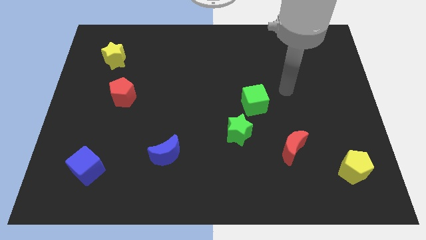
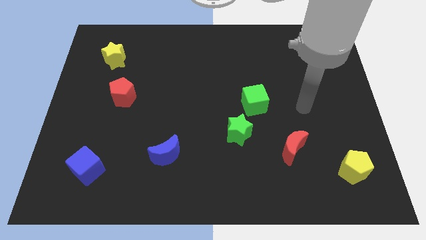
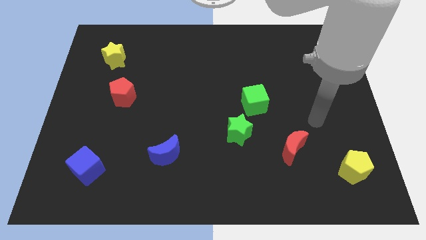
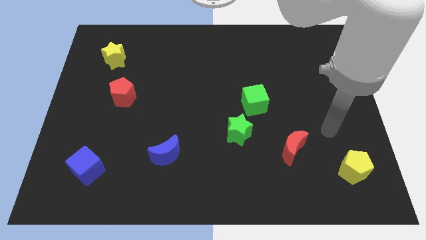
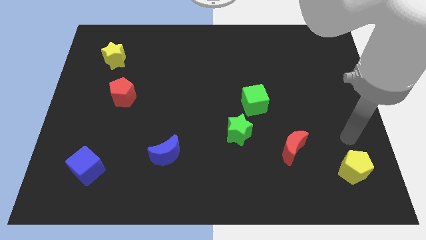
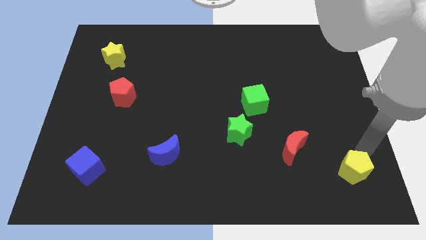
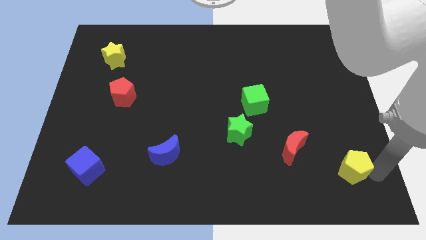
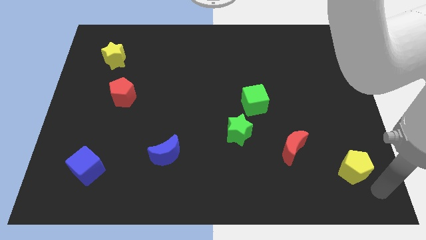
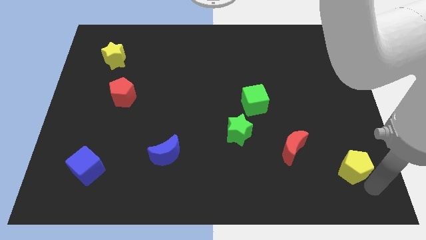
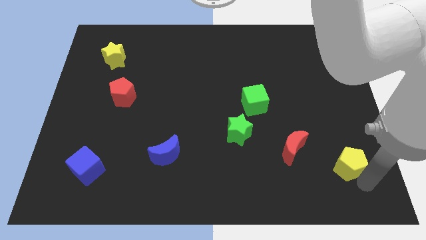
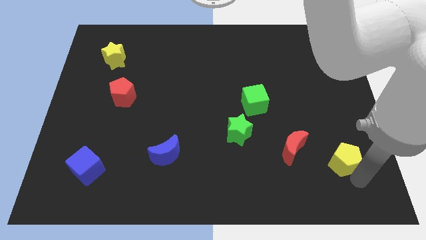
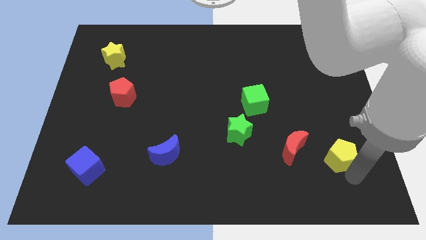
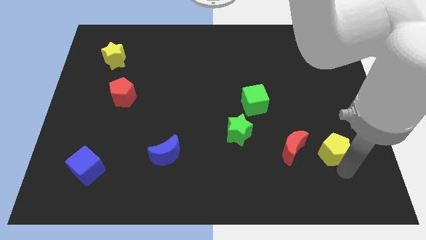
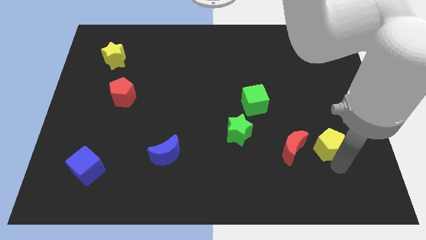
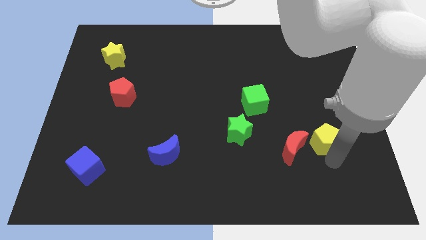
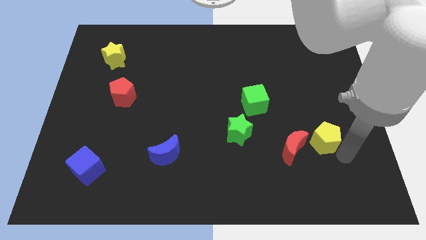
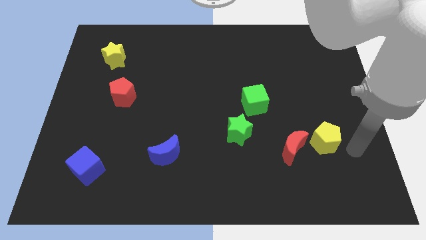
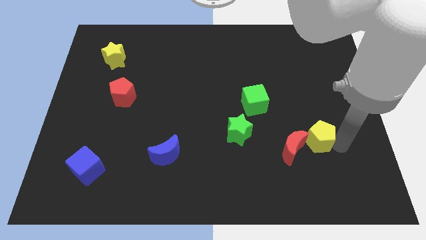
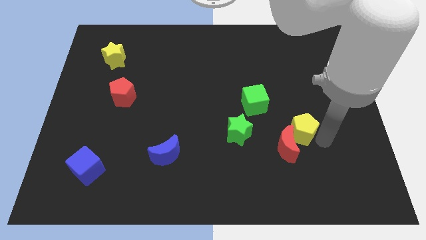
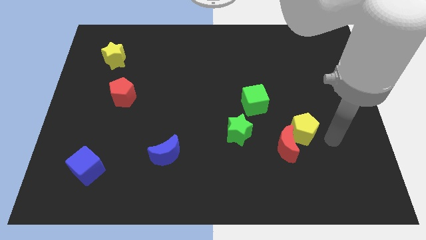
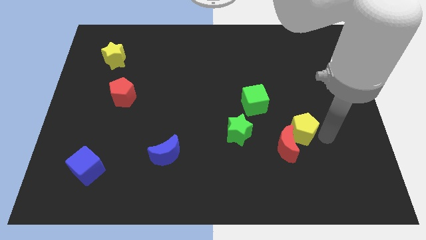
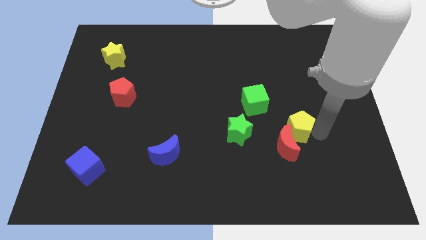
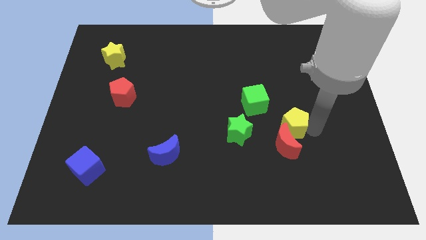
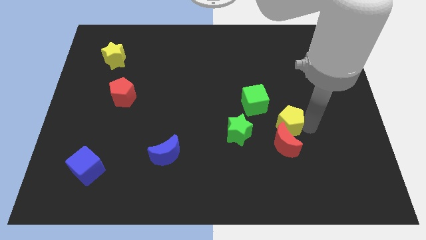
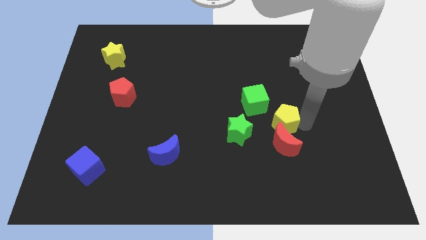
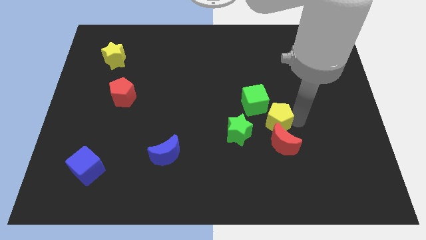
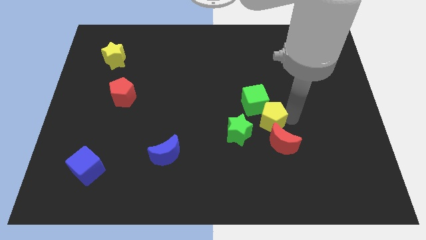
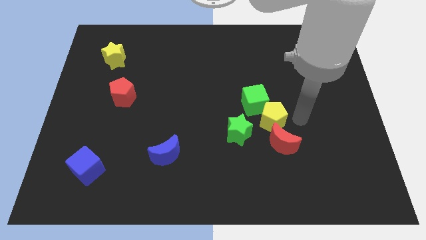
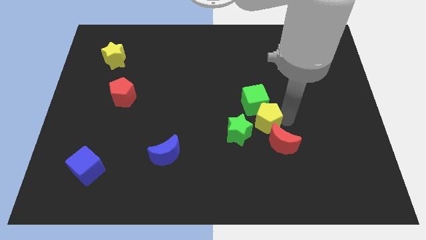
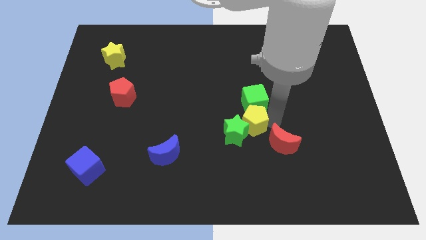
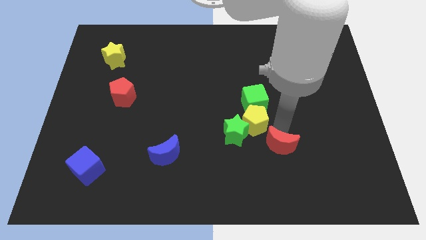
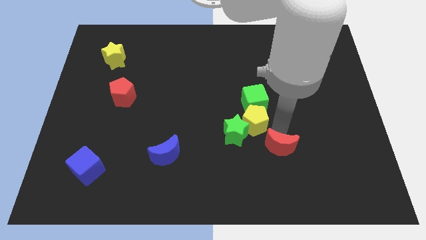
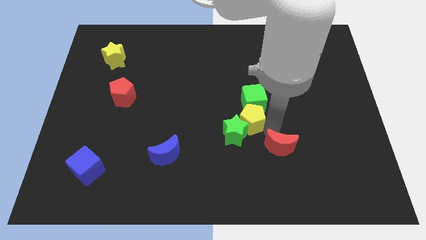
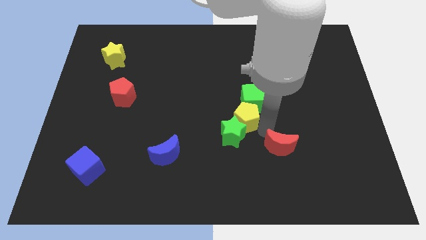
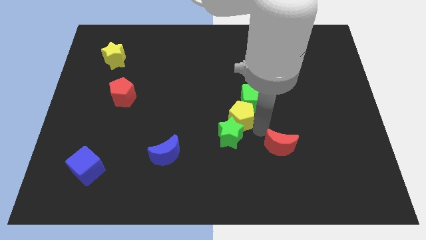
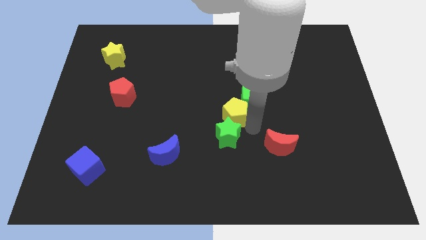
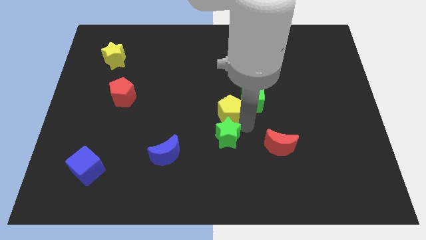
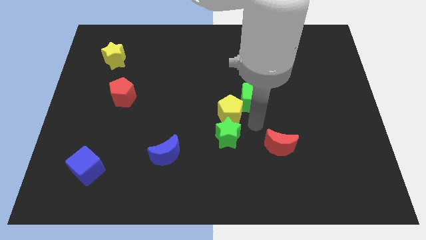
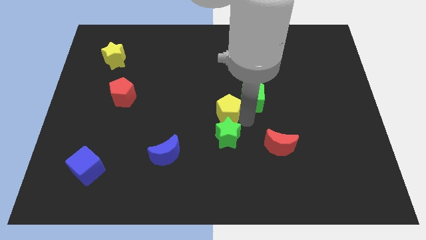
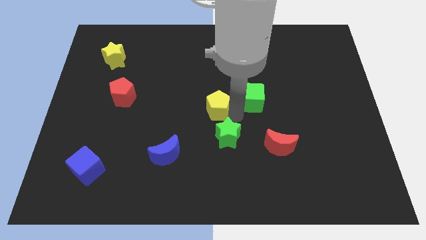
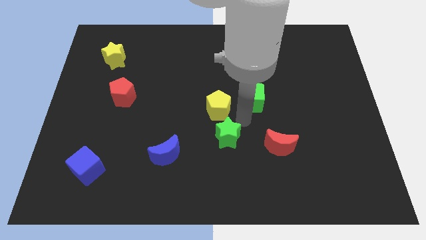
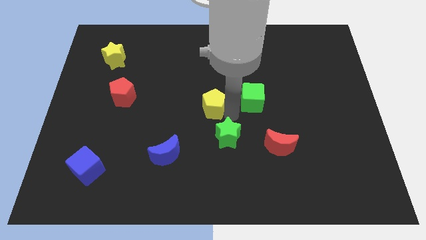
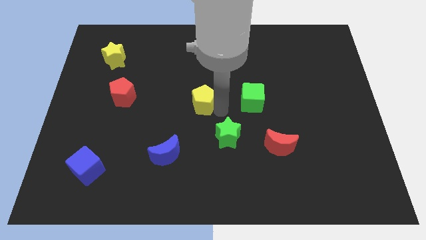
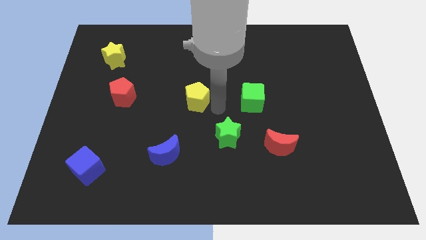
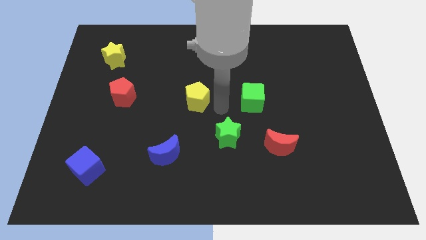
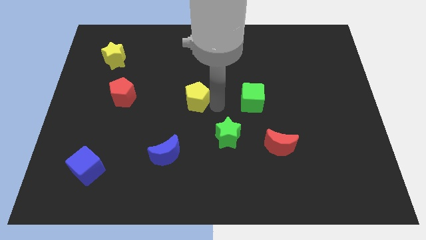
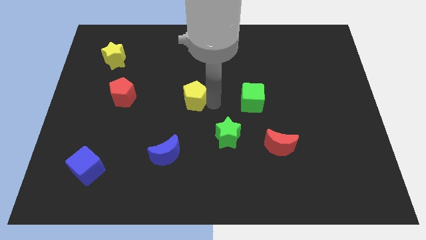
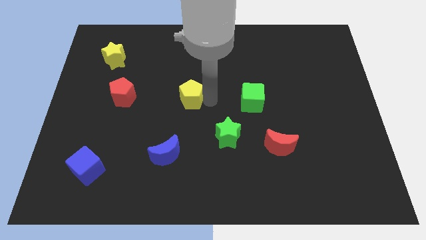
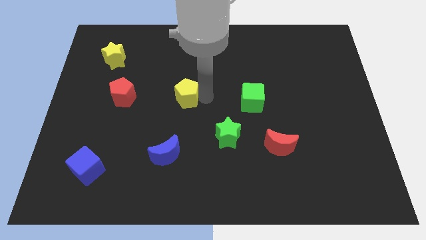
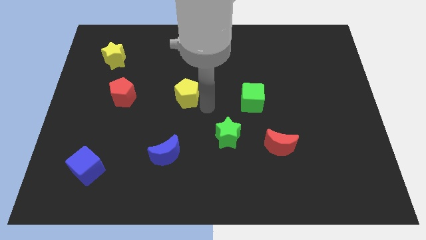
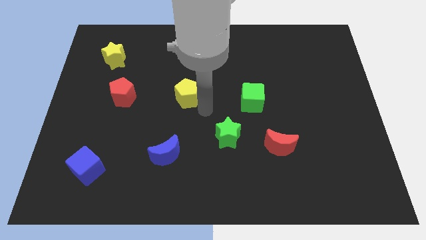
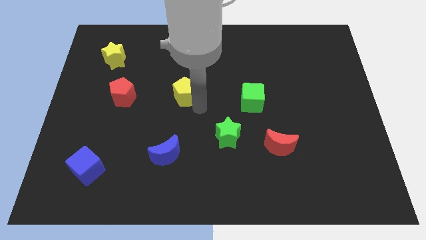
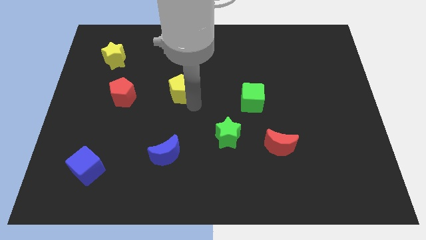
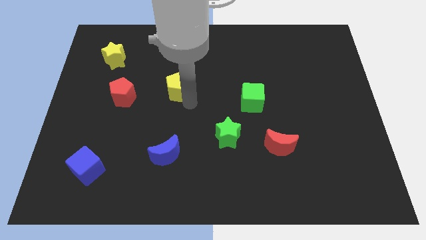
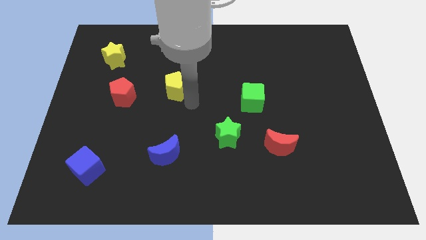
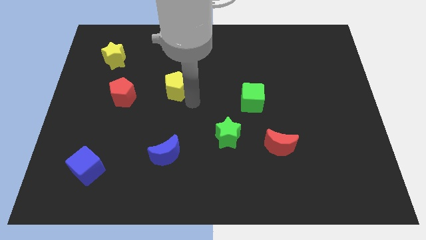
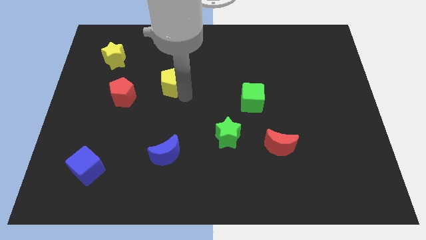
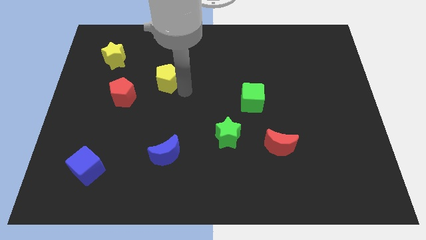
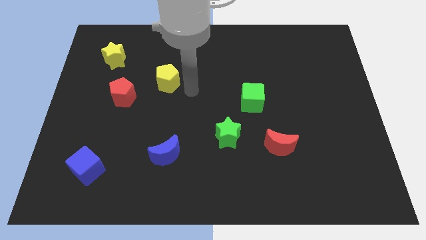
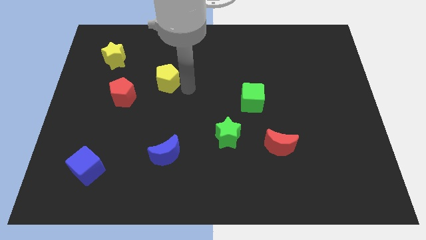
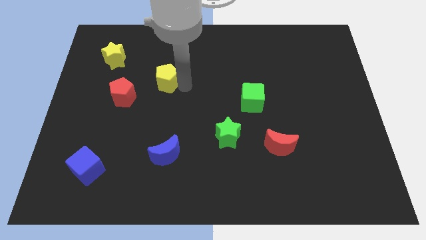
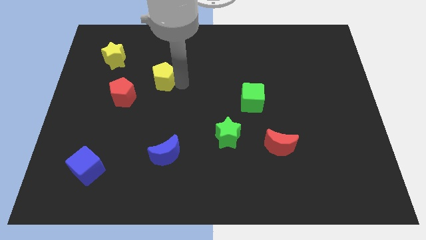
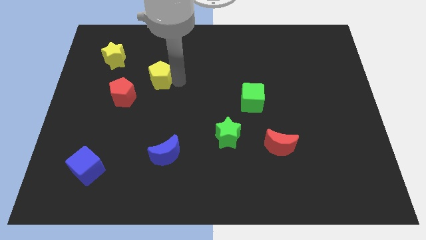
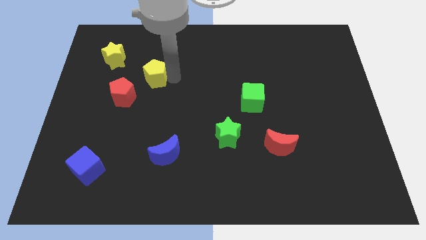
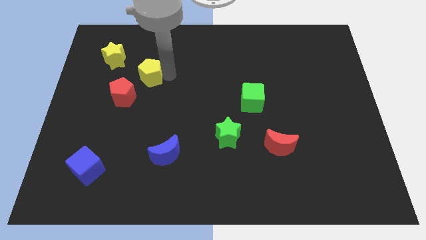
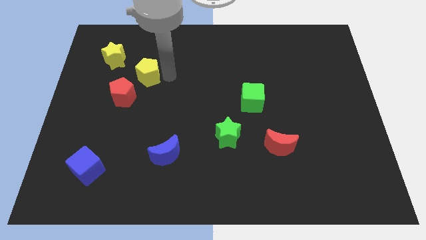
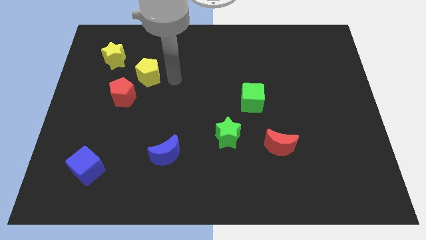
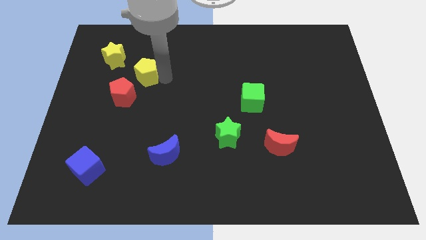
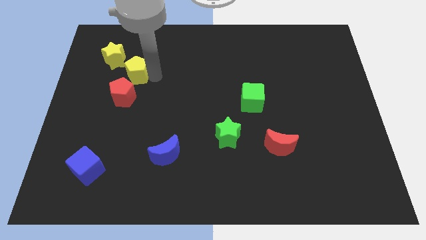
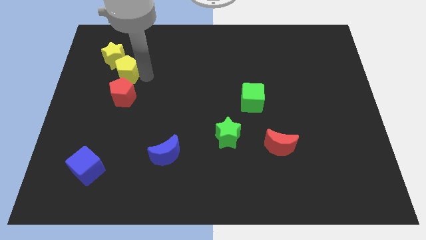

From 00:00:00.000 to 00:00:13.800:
move the yellow pentagon next to the yellow star

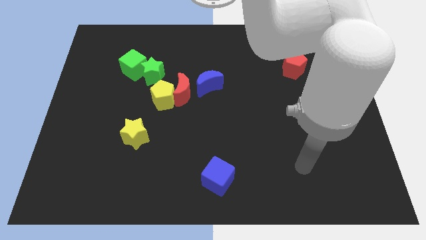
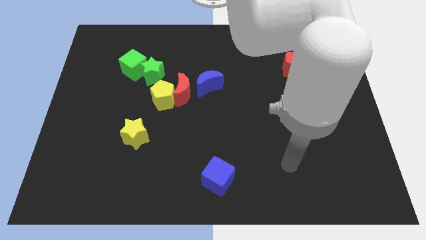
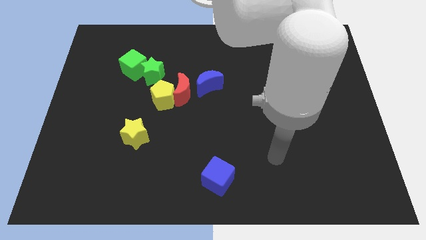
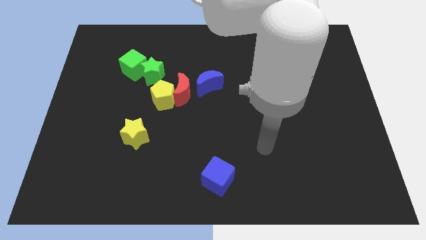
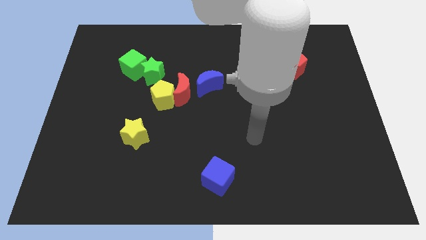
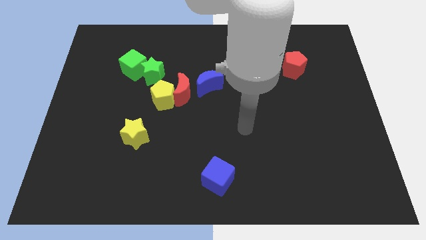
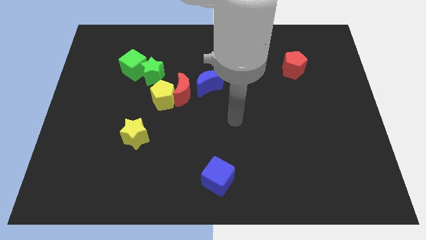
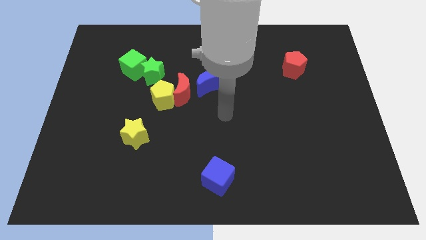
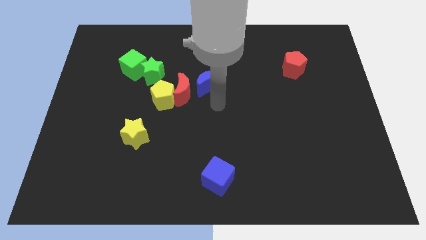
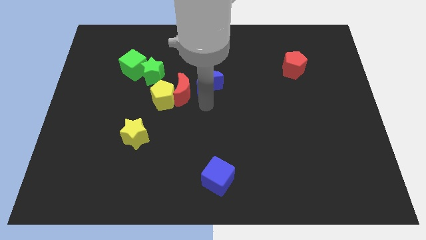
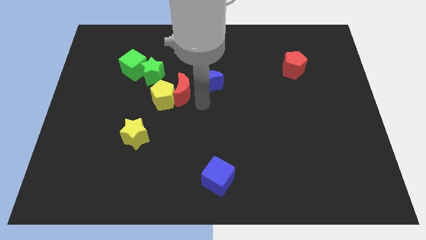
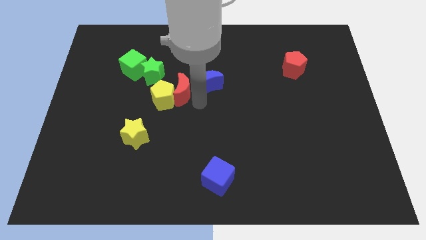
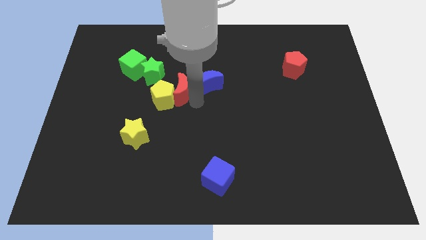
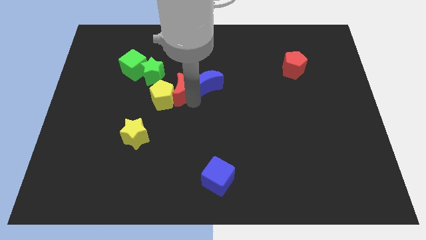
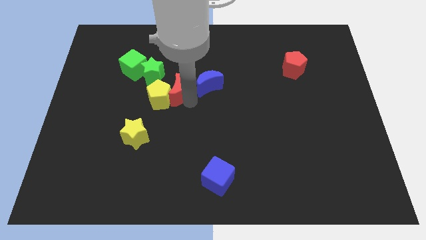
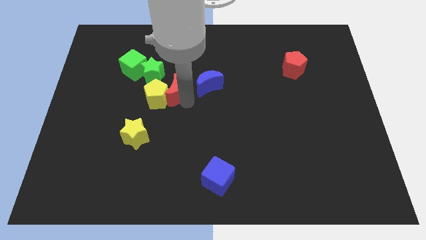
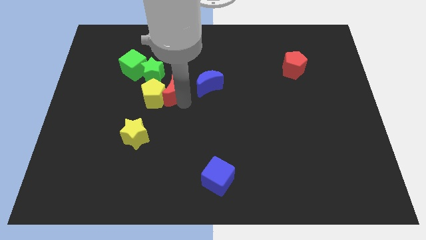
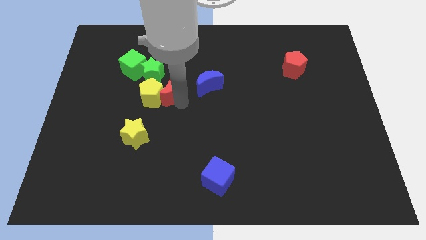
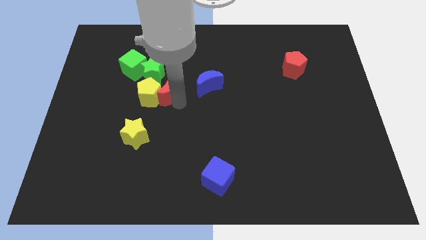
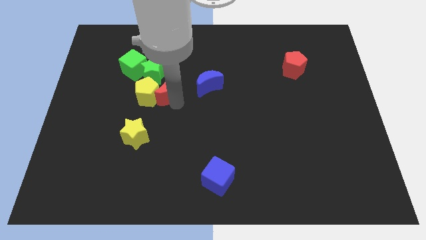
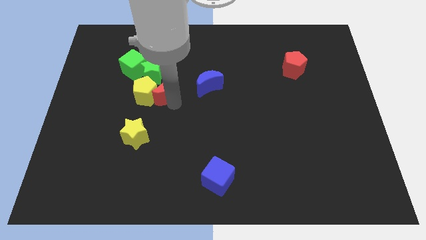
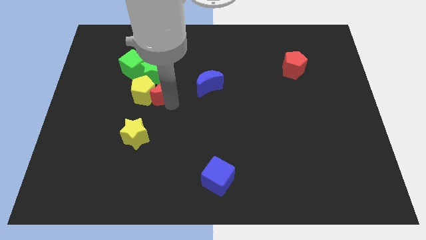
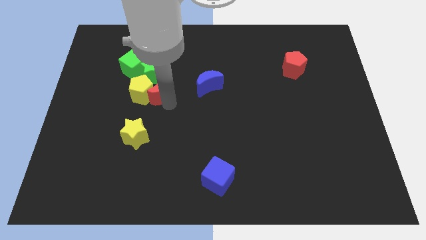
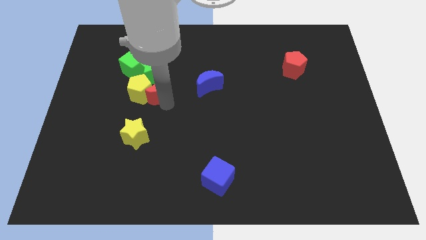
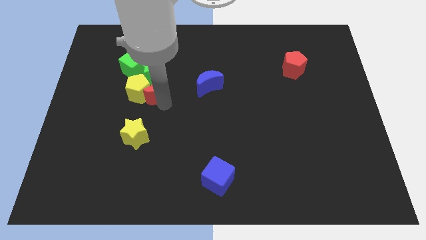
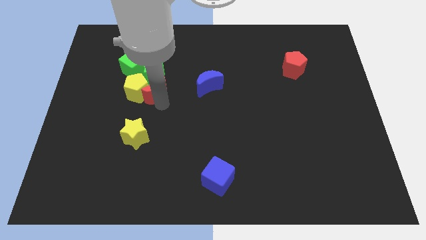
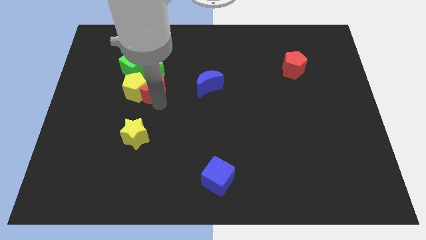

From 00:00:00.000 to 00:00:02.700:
put the red moon to the green star
